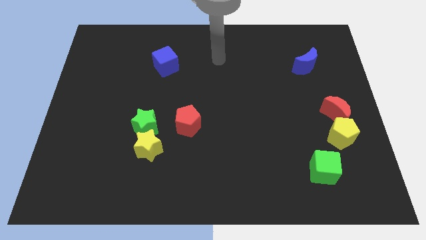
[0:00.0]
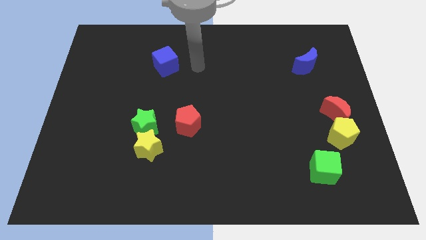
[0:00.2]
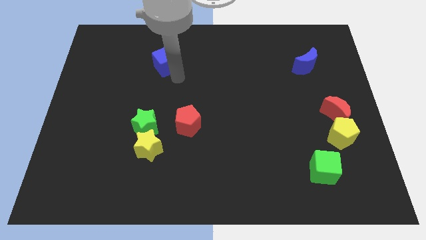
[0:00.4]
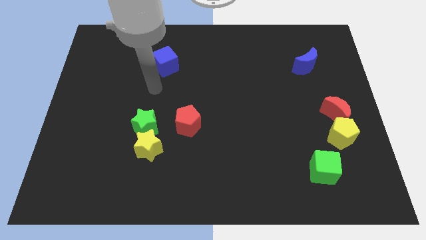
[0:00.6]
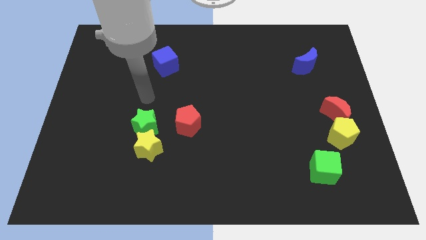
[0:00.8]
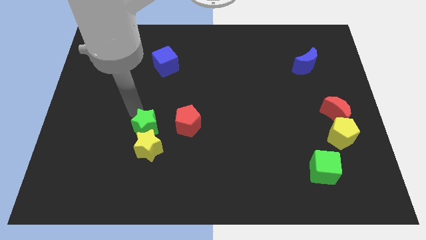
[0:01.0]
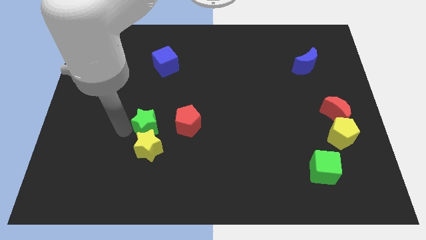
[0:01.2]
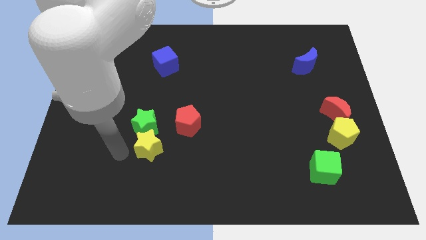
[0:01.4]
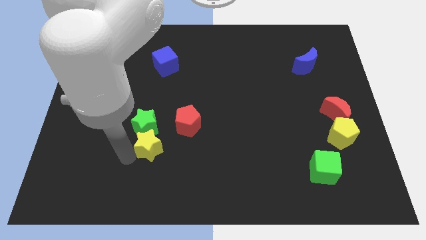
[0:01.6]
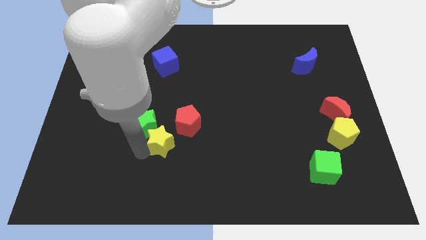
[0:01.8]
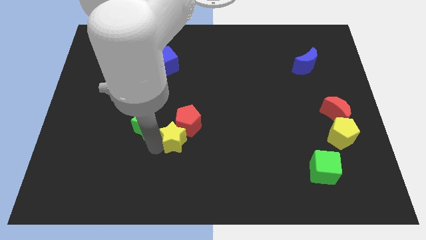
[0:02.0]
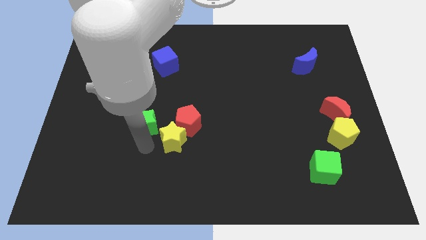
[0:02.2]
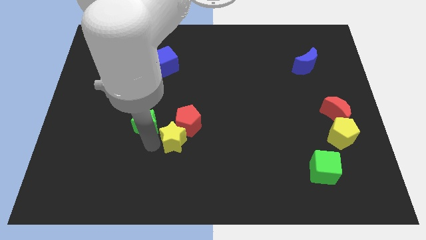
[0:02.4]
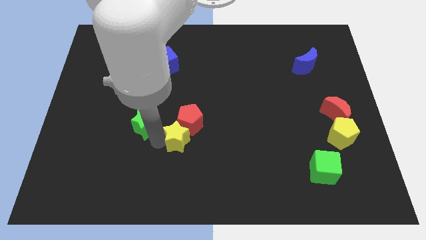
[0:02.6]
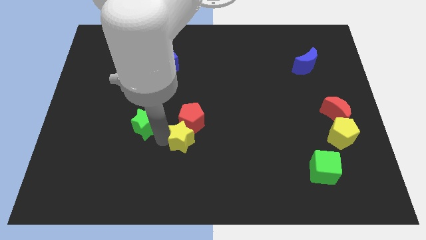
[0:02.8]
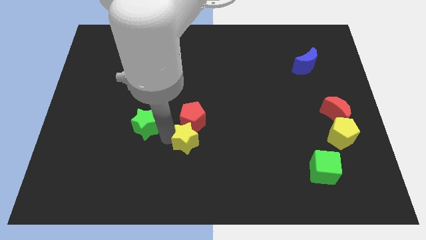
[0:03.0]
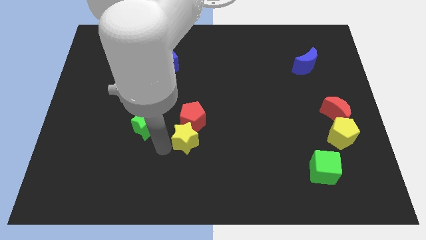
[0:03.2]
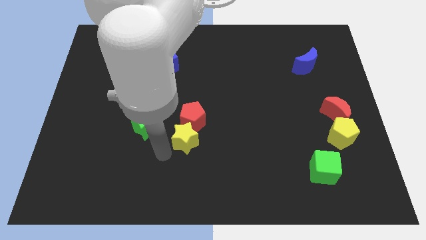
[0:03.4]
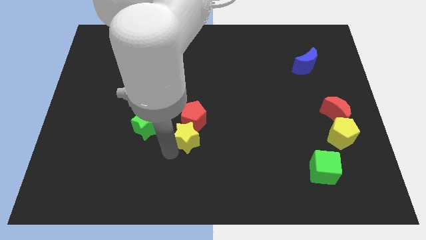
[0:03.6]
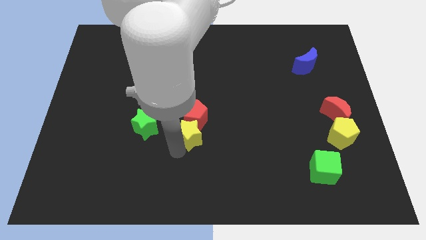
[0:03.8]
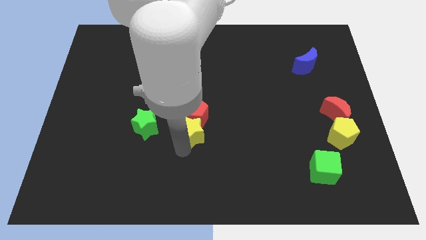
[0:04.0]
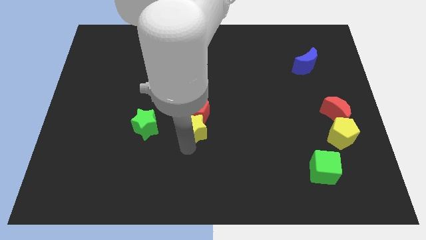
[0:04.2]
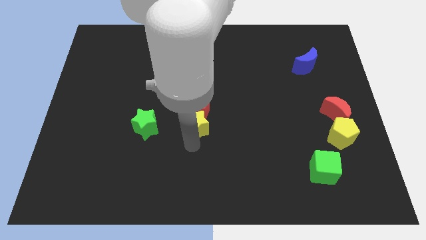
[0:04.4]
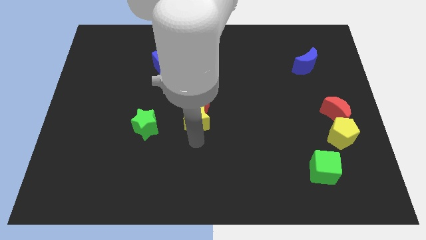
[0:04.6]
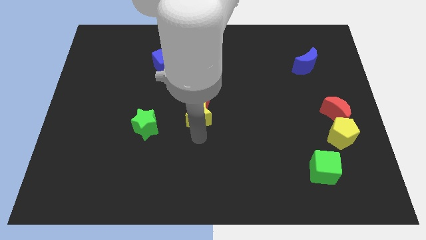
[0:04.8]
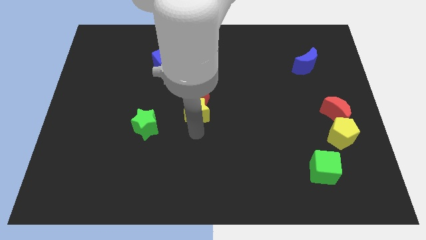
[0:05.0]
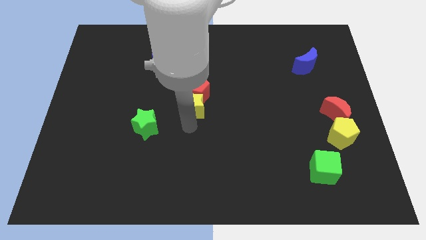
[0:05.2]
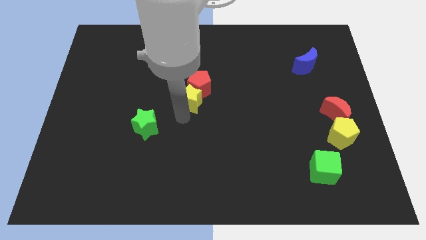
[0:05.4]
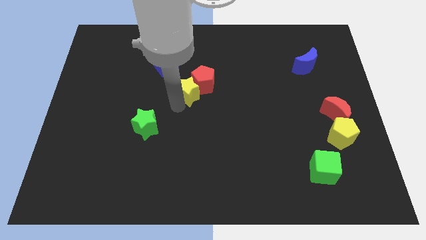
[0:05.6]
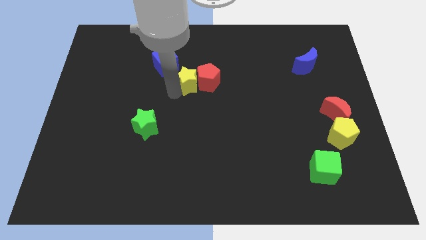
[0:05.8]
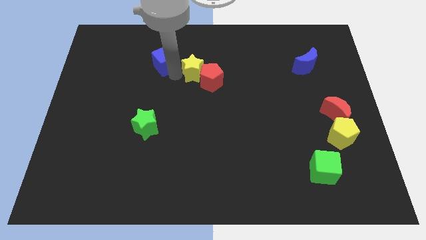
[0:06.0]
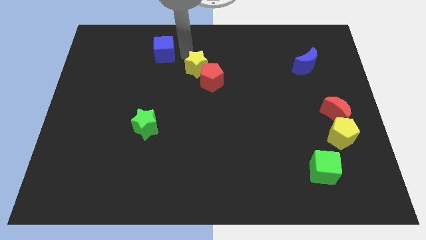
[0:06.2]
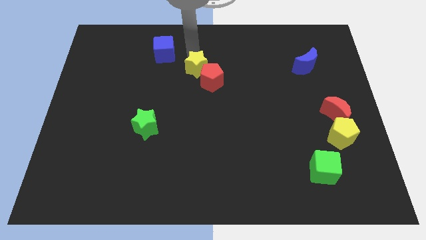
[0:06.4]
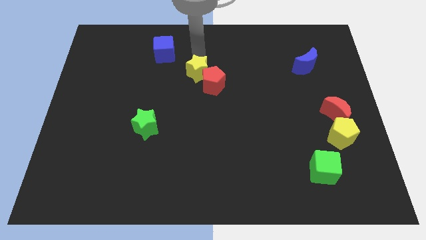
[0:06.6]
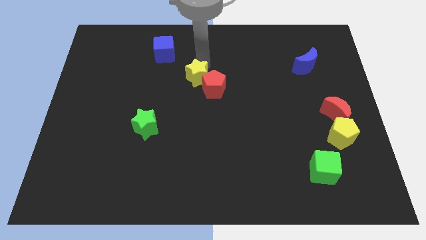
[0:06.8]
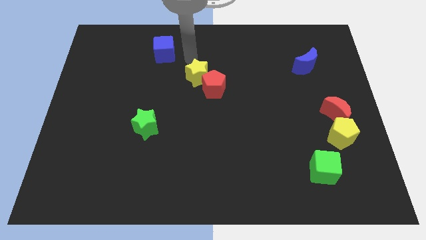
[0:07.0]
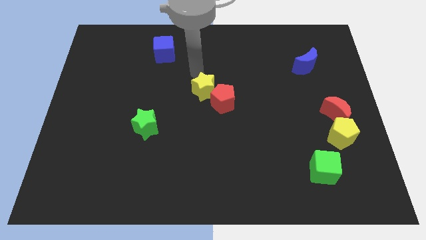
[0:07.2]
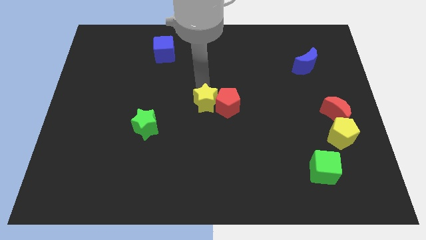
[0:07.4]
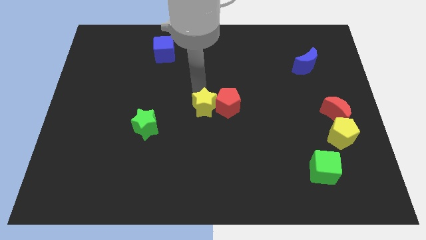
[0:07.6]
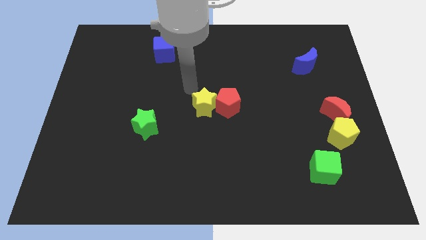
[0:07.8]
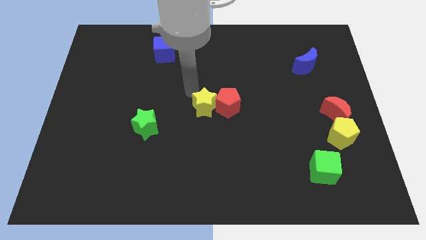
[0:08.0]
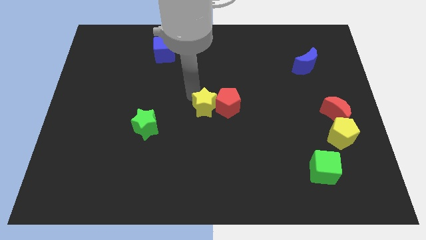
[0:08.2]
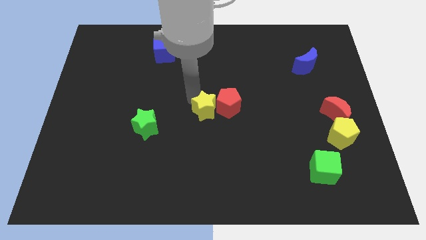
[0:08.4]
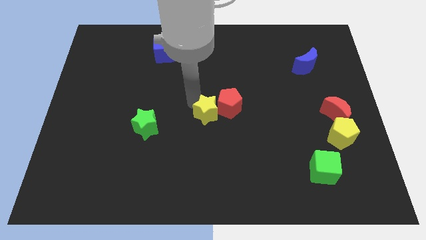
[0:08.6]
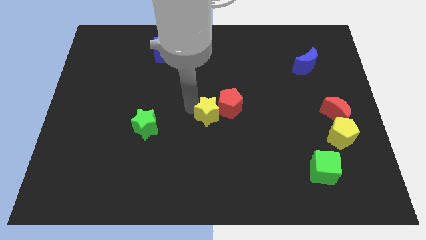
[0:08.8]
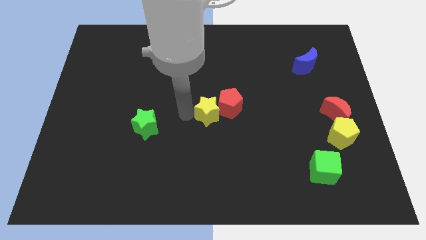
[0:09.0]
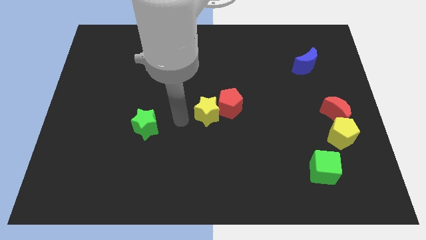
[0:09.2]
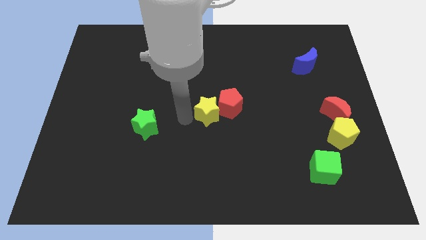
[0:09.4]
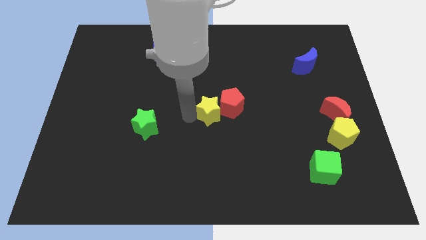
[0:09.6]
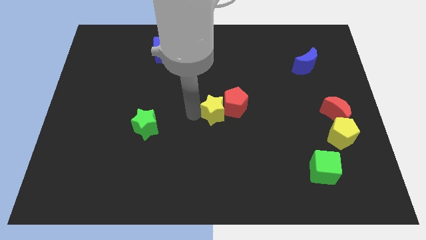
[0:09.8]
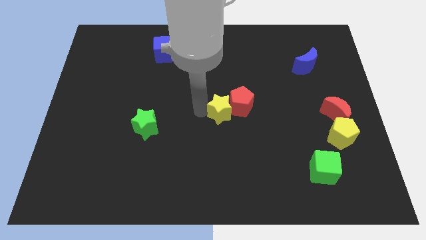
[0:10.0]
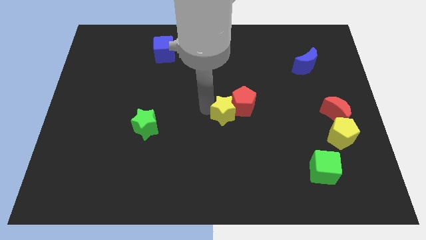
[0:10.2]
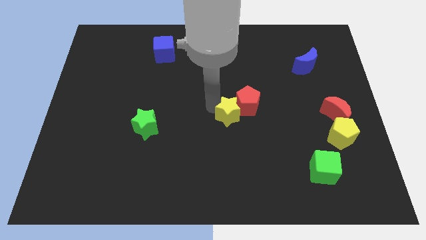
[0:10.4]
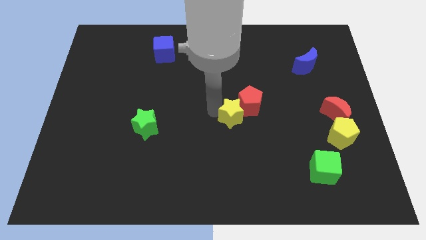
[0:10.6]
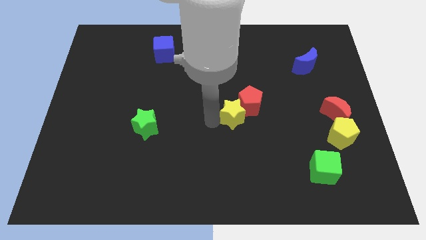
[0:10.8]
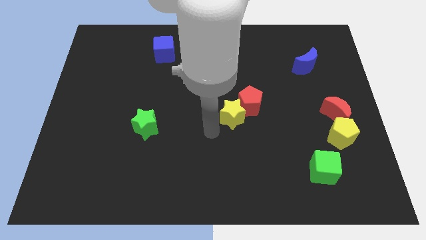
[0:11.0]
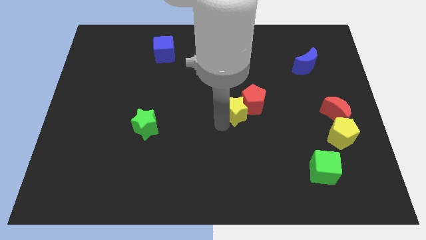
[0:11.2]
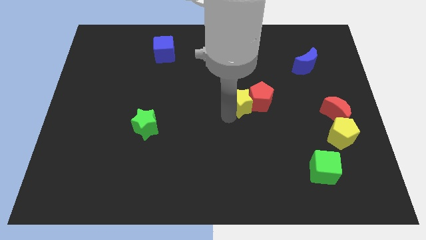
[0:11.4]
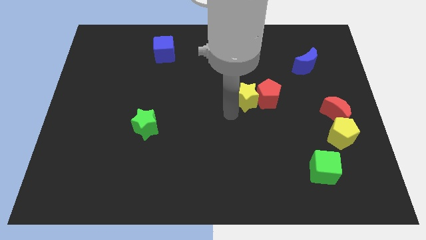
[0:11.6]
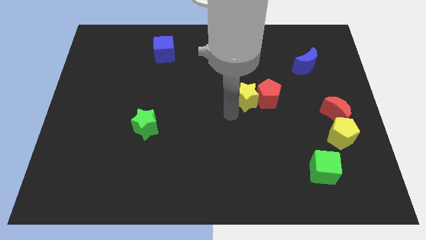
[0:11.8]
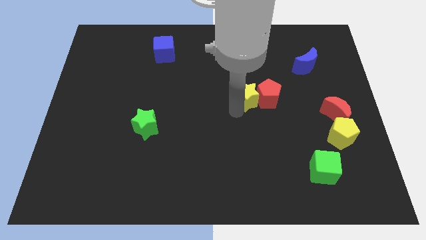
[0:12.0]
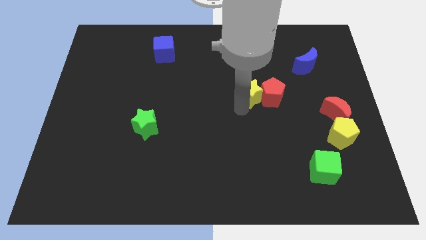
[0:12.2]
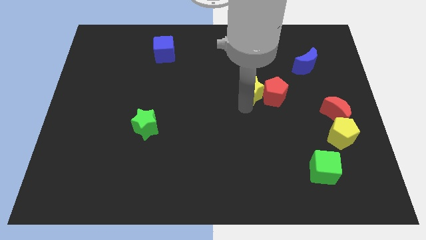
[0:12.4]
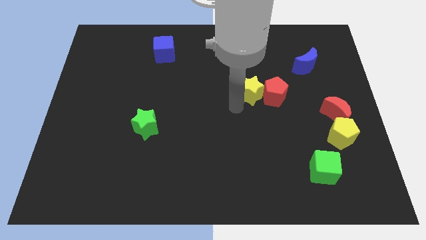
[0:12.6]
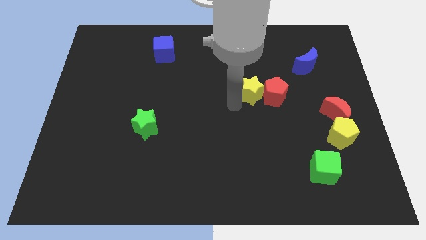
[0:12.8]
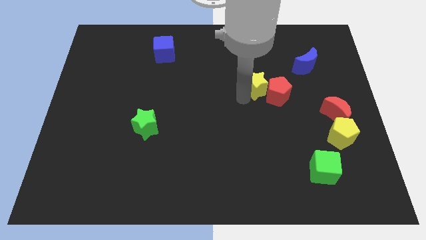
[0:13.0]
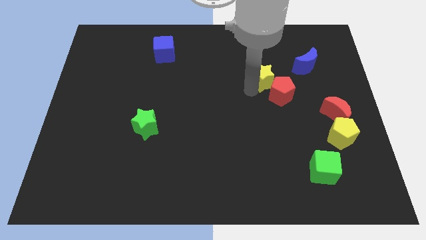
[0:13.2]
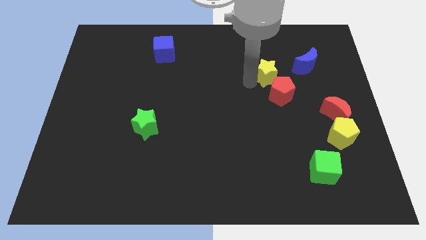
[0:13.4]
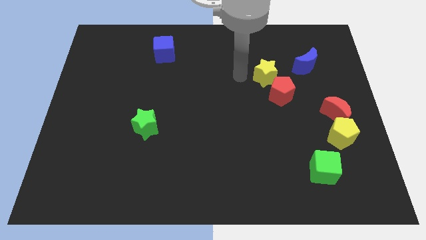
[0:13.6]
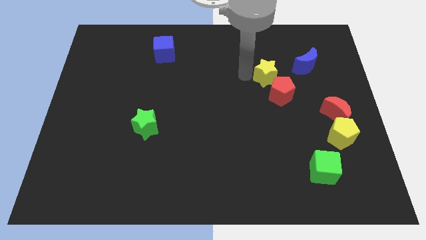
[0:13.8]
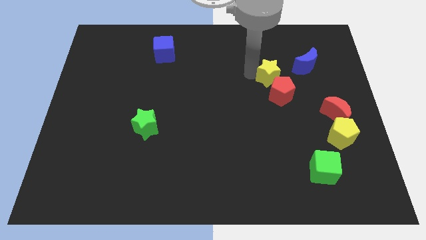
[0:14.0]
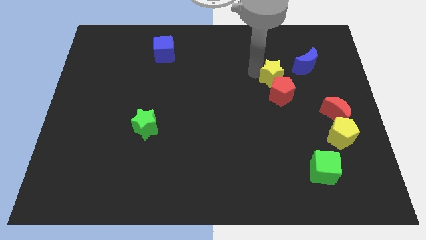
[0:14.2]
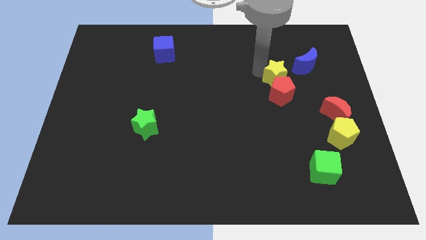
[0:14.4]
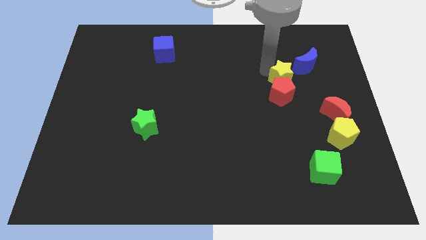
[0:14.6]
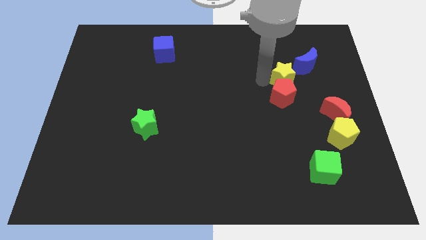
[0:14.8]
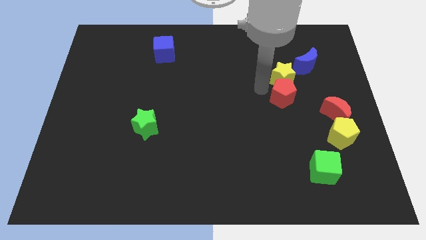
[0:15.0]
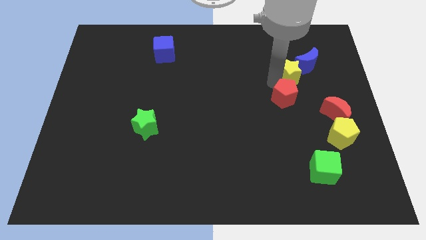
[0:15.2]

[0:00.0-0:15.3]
slide the yellow star next to the blue moon
